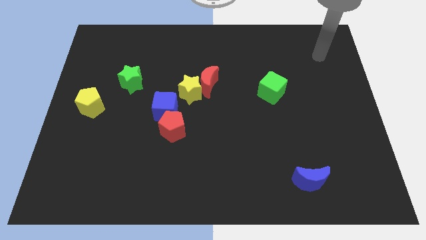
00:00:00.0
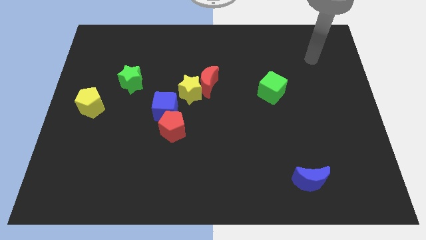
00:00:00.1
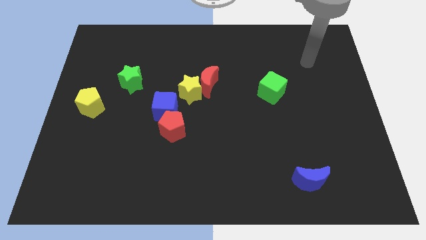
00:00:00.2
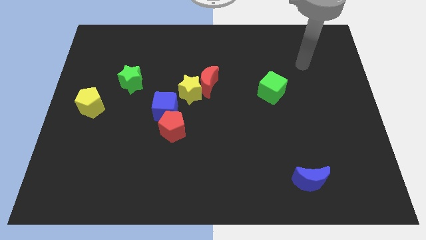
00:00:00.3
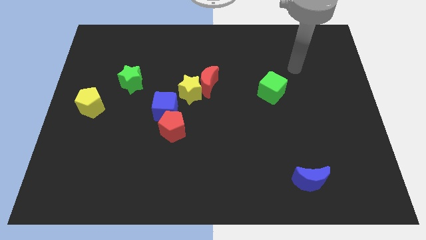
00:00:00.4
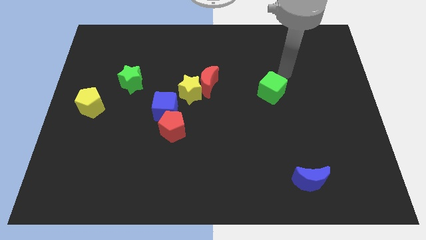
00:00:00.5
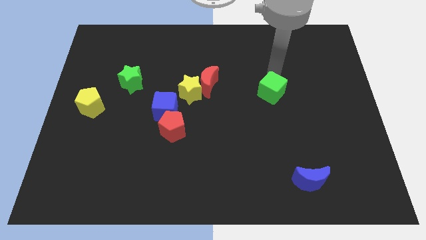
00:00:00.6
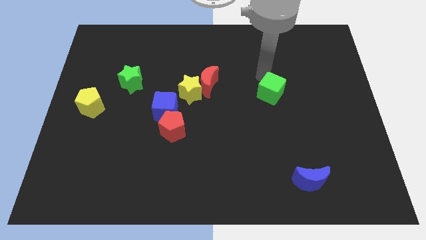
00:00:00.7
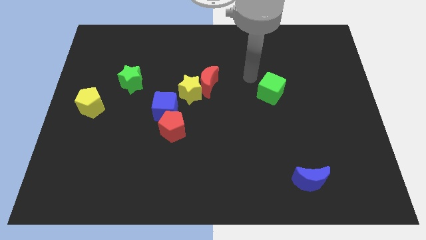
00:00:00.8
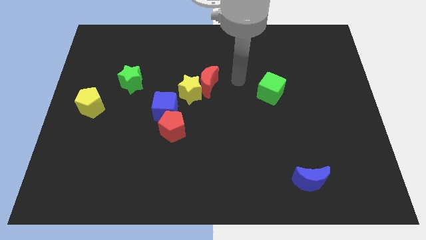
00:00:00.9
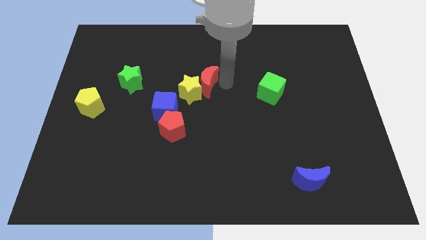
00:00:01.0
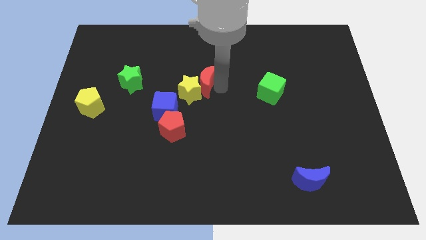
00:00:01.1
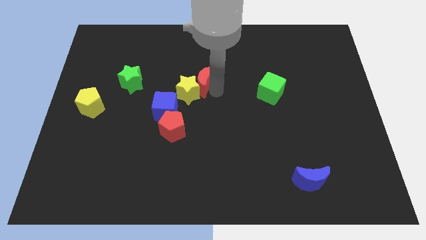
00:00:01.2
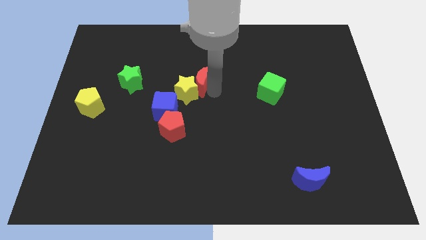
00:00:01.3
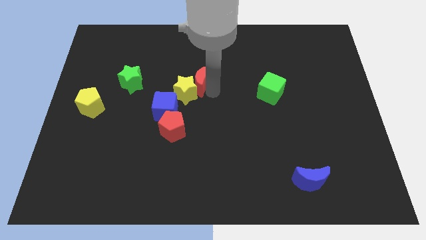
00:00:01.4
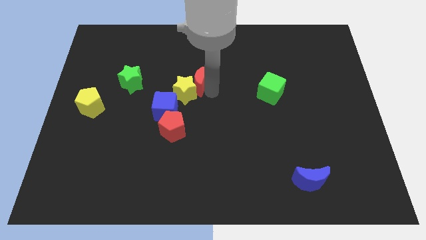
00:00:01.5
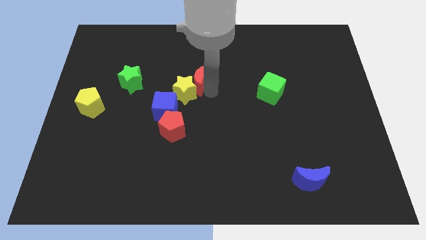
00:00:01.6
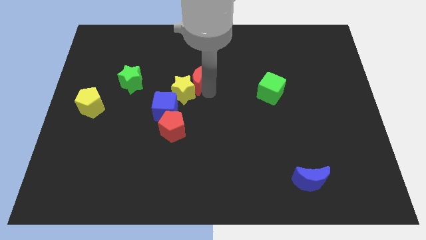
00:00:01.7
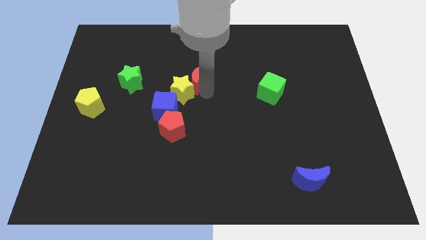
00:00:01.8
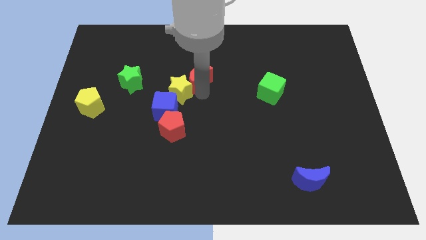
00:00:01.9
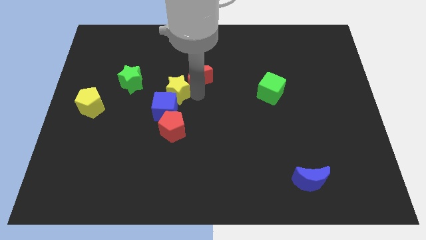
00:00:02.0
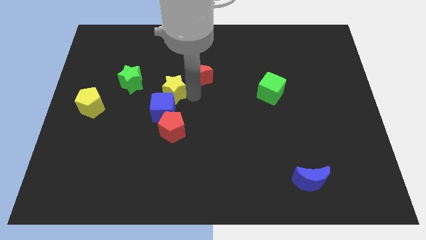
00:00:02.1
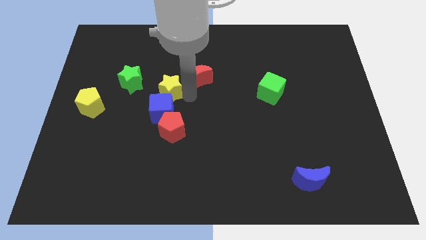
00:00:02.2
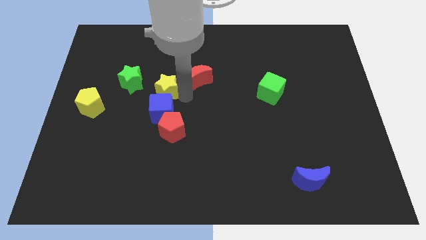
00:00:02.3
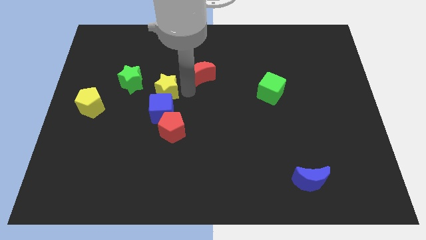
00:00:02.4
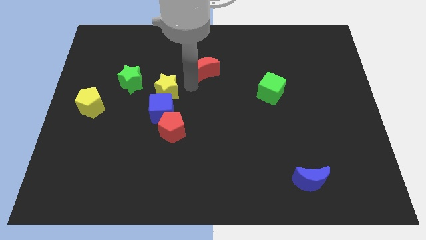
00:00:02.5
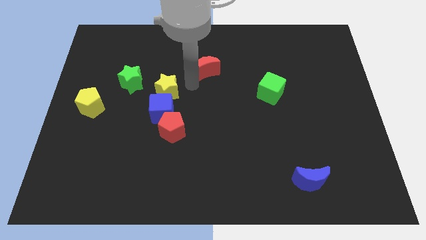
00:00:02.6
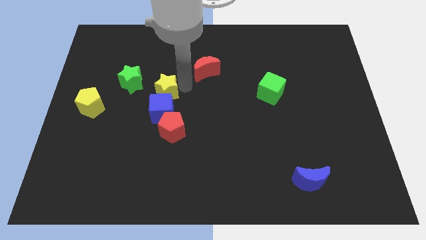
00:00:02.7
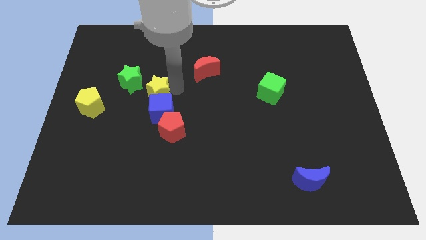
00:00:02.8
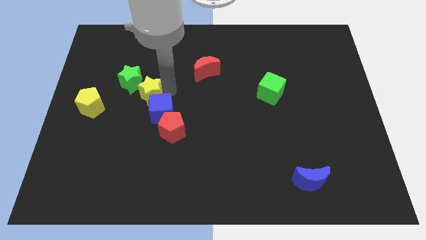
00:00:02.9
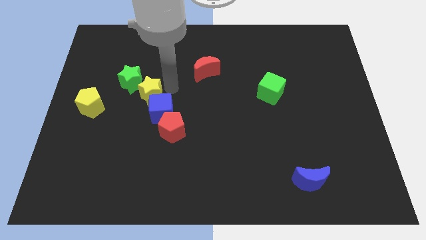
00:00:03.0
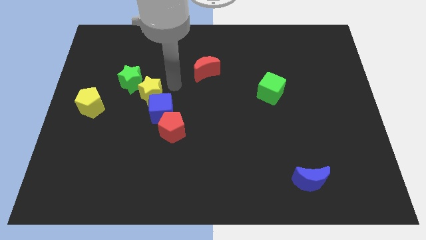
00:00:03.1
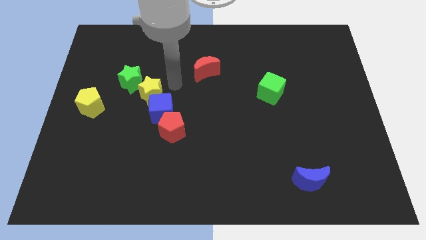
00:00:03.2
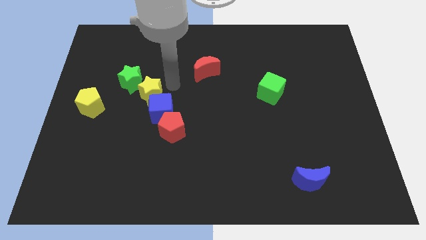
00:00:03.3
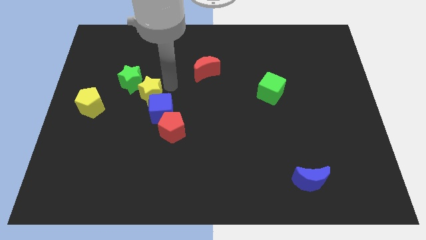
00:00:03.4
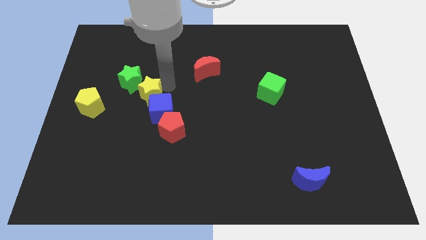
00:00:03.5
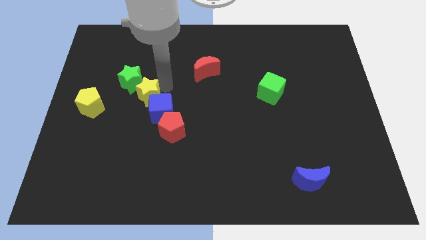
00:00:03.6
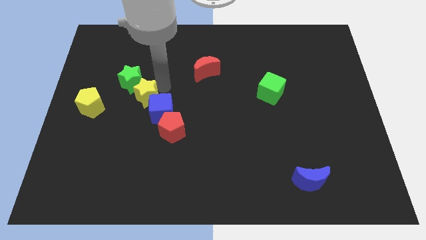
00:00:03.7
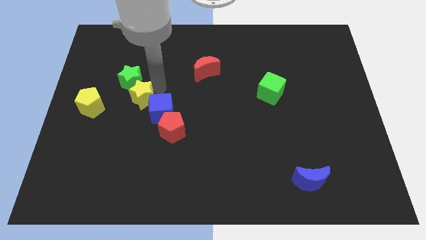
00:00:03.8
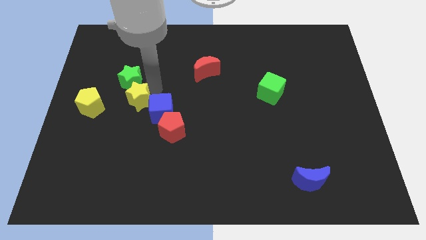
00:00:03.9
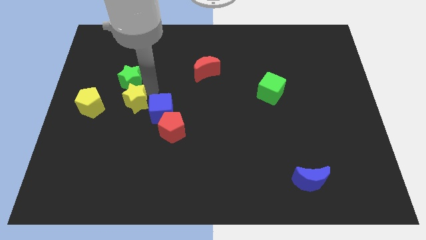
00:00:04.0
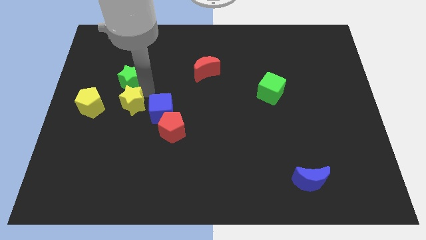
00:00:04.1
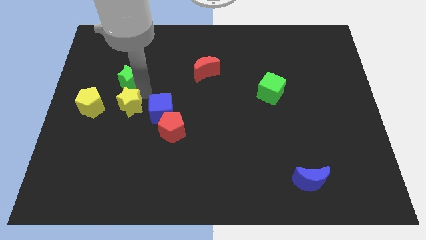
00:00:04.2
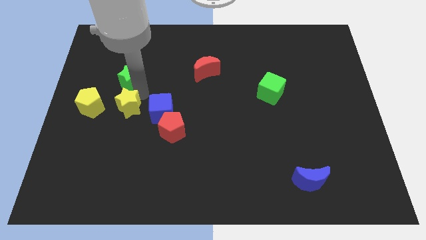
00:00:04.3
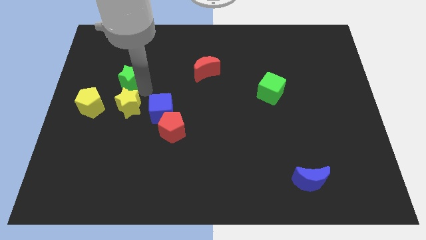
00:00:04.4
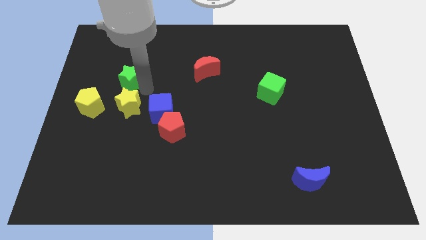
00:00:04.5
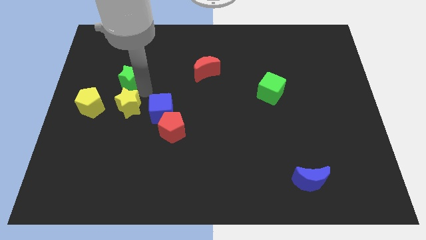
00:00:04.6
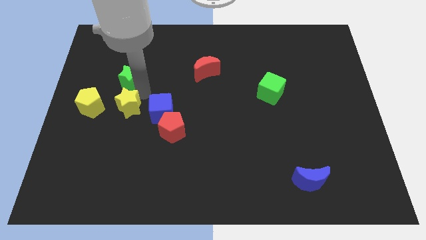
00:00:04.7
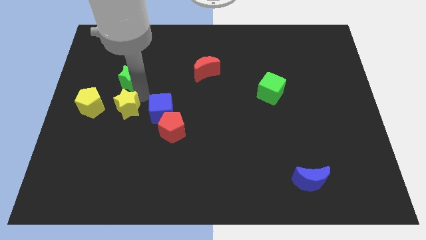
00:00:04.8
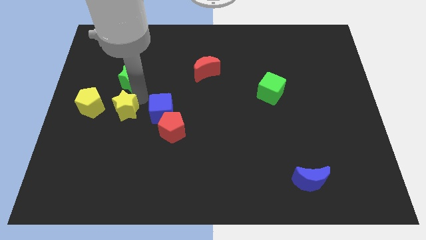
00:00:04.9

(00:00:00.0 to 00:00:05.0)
slide the yellow star to the bottom right side of the yellow pentagon

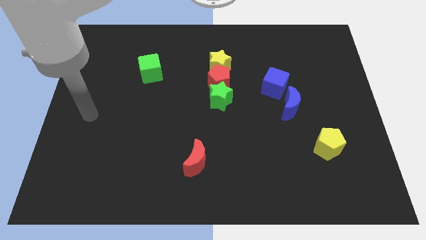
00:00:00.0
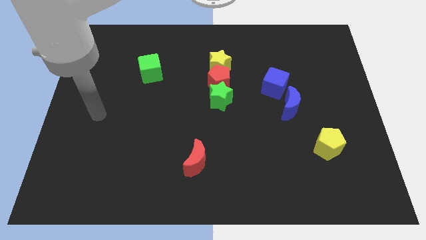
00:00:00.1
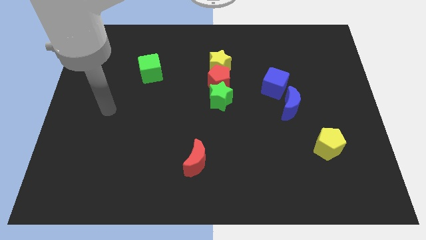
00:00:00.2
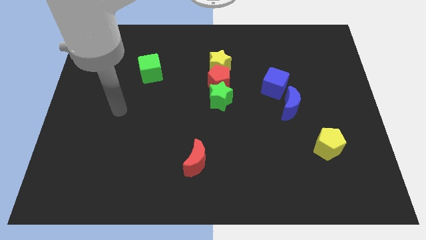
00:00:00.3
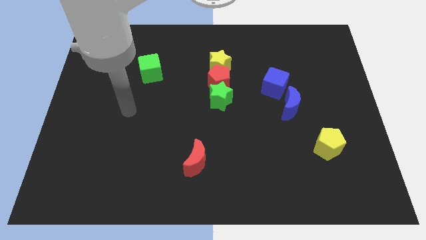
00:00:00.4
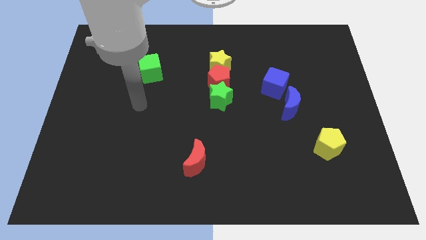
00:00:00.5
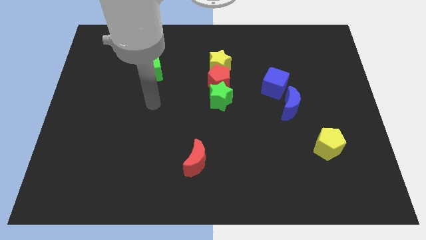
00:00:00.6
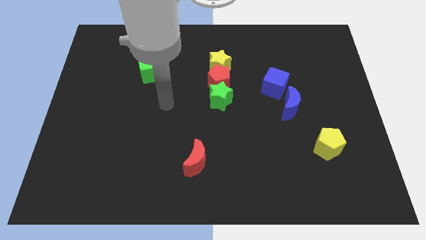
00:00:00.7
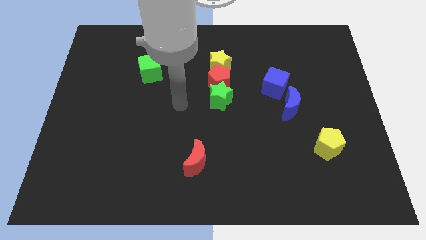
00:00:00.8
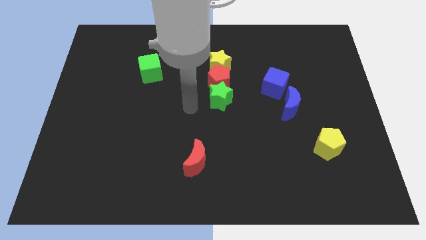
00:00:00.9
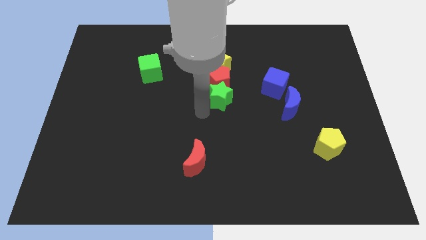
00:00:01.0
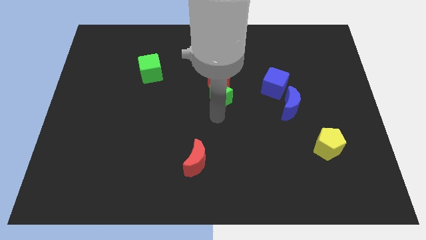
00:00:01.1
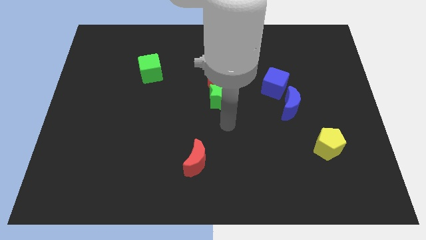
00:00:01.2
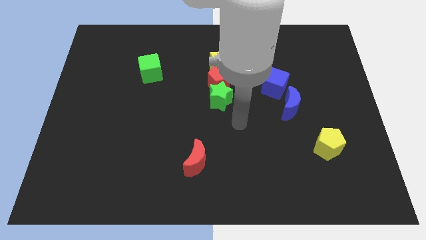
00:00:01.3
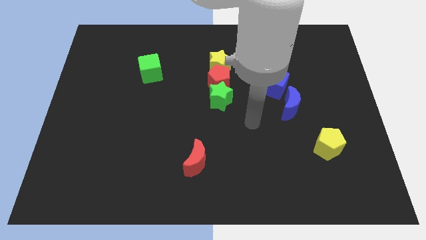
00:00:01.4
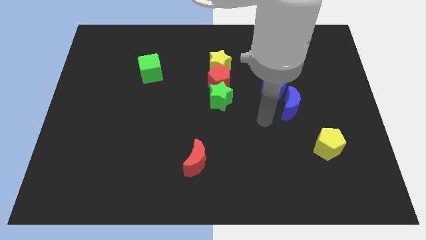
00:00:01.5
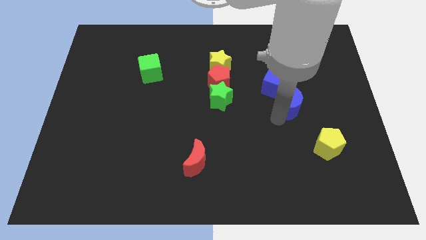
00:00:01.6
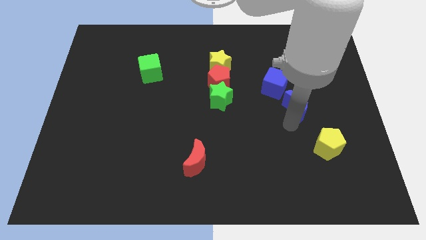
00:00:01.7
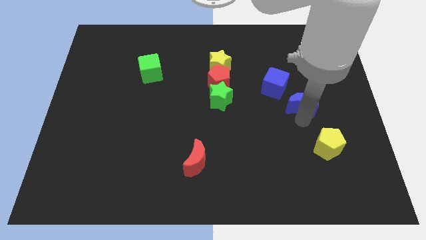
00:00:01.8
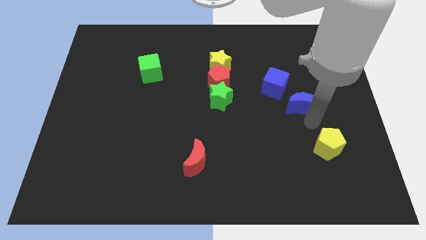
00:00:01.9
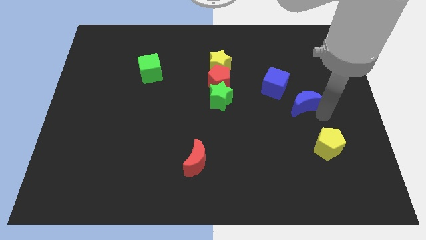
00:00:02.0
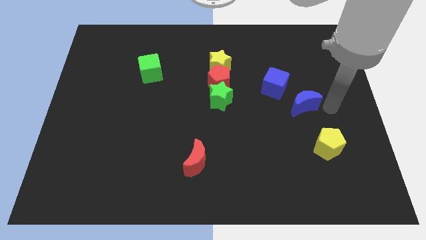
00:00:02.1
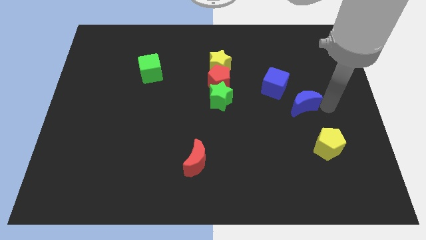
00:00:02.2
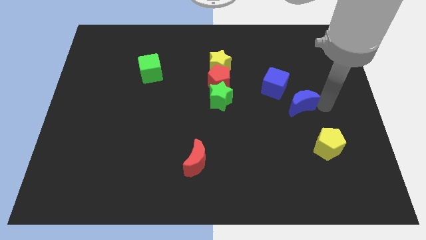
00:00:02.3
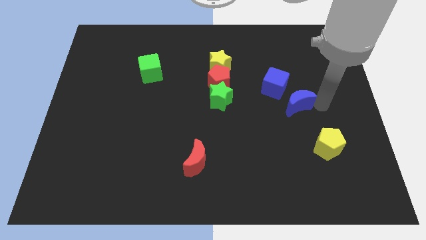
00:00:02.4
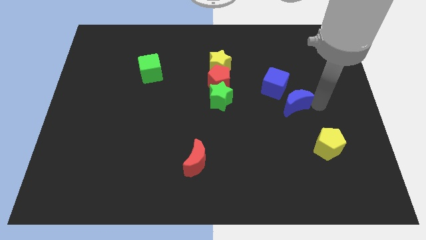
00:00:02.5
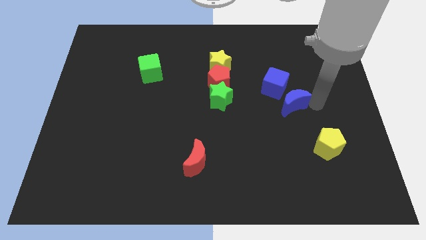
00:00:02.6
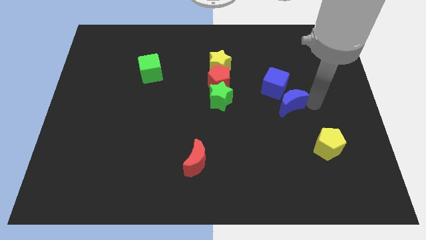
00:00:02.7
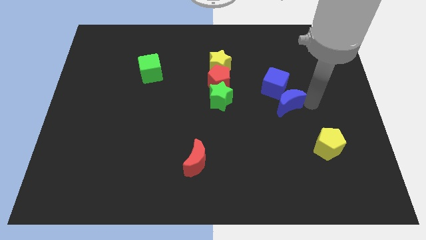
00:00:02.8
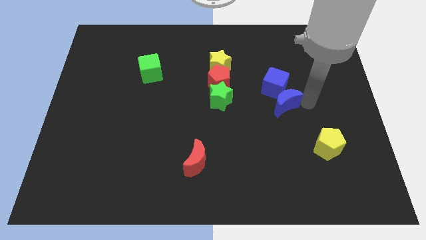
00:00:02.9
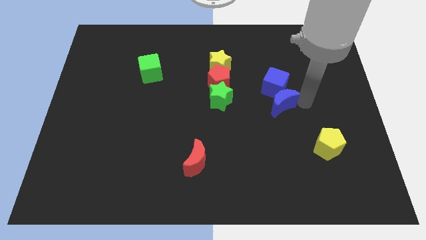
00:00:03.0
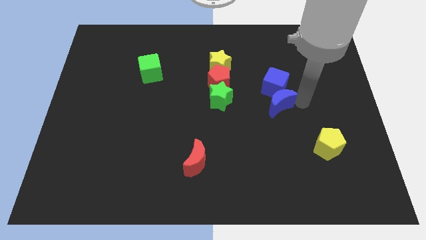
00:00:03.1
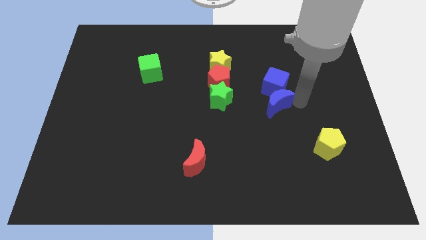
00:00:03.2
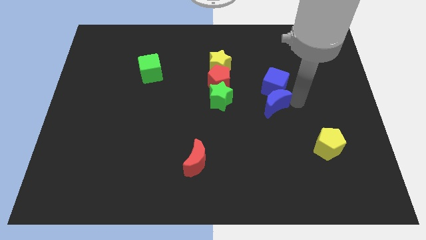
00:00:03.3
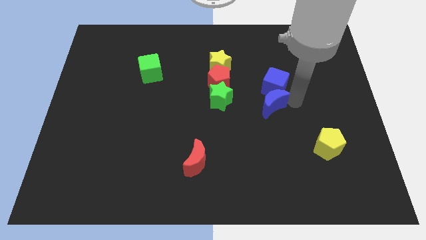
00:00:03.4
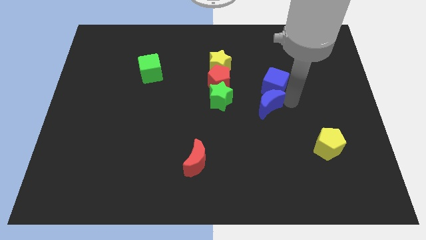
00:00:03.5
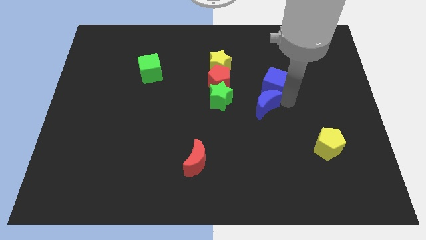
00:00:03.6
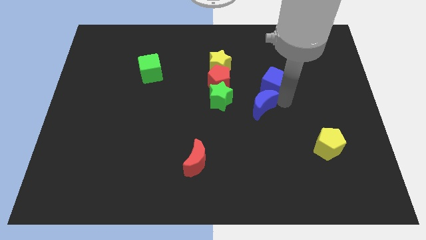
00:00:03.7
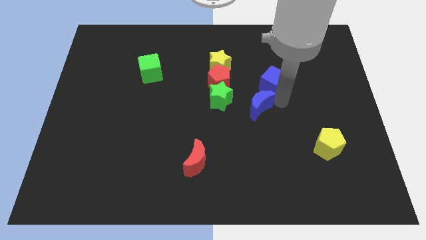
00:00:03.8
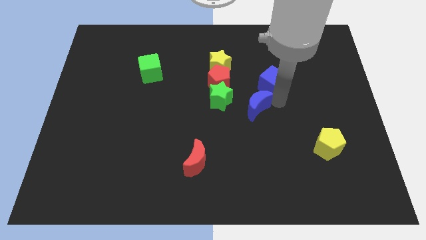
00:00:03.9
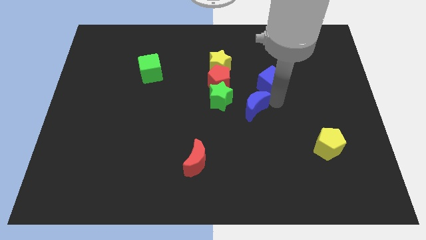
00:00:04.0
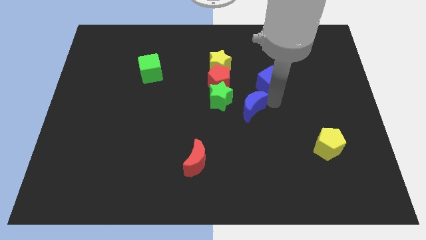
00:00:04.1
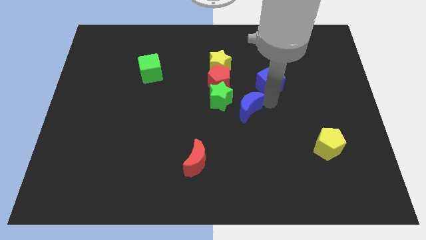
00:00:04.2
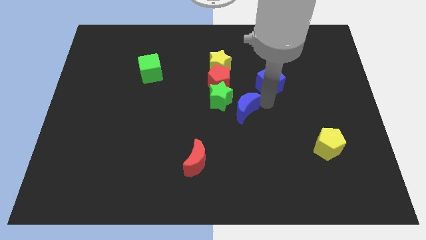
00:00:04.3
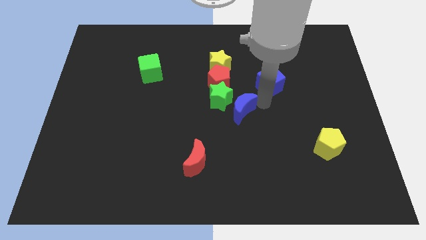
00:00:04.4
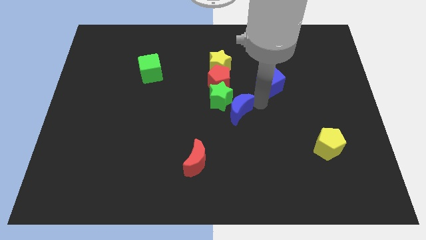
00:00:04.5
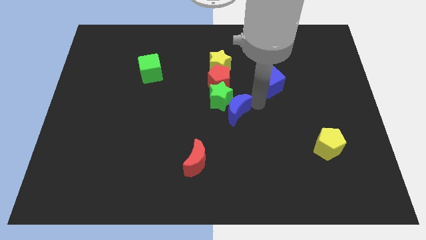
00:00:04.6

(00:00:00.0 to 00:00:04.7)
slide the blue moon below the yellow star
